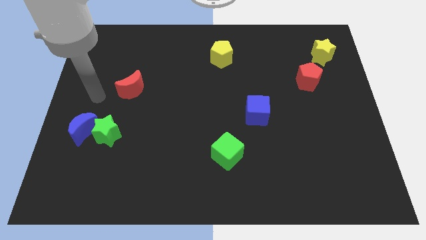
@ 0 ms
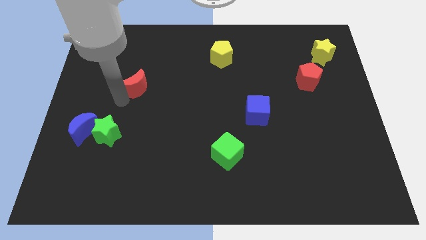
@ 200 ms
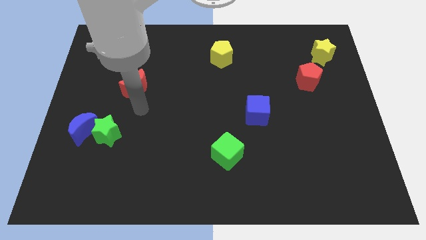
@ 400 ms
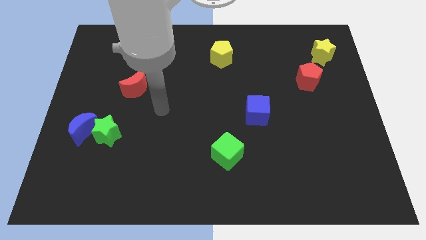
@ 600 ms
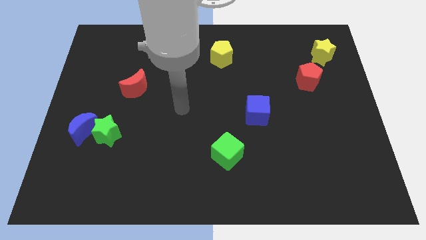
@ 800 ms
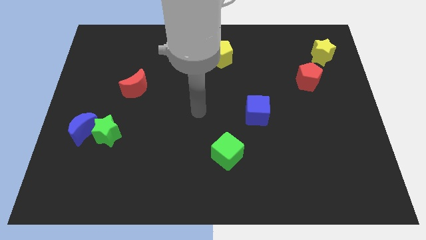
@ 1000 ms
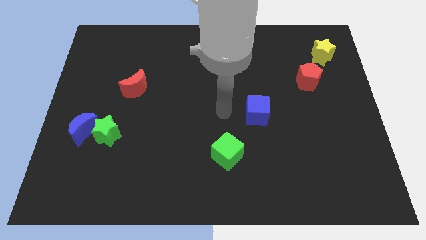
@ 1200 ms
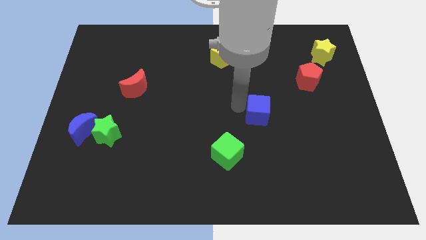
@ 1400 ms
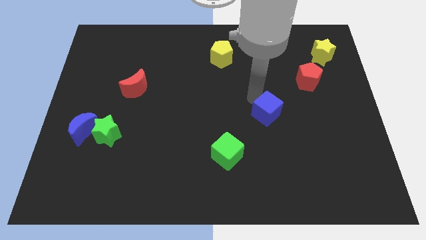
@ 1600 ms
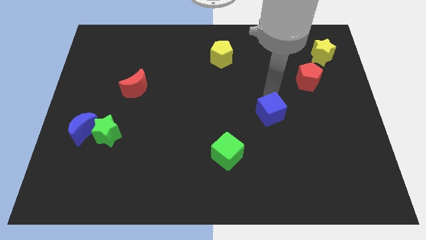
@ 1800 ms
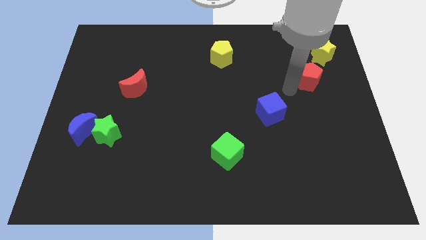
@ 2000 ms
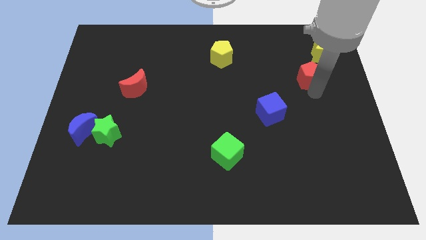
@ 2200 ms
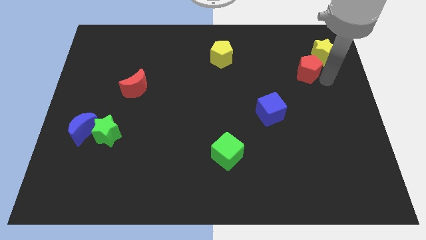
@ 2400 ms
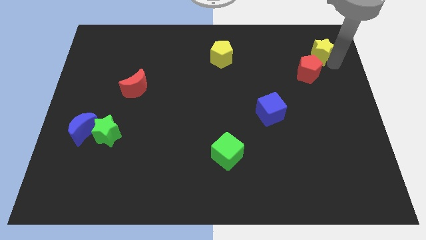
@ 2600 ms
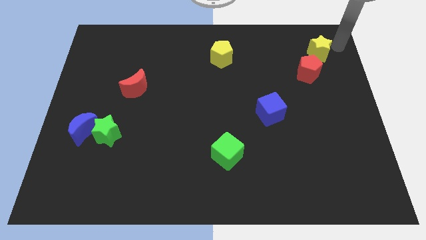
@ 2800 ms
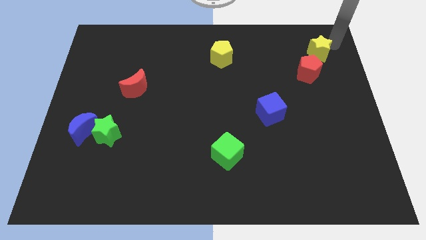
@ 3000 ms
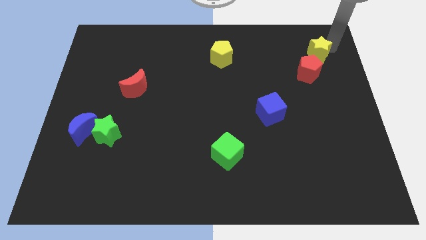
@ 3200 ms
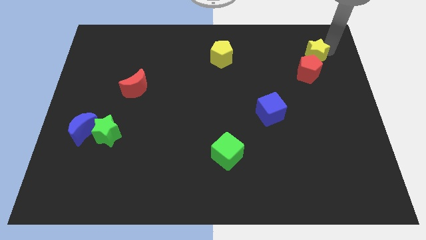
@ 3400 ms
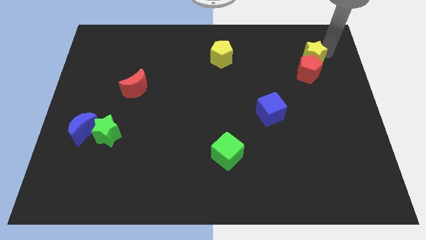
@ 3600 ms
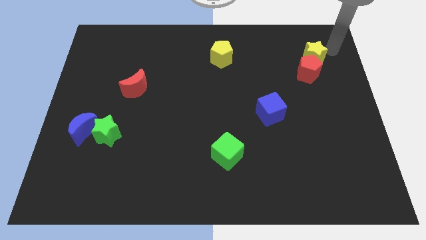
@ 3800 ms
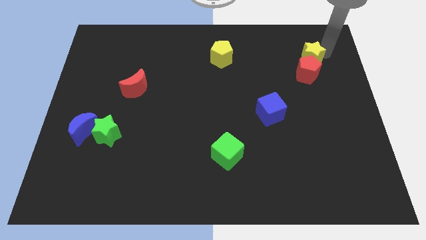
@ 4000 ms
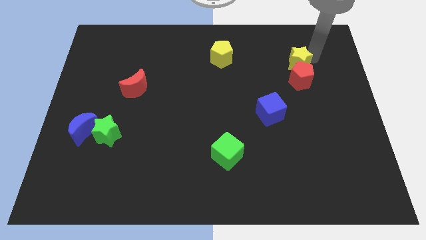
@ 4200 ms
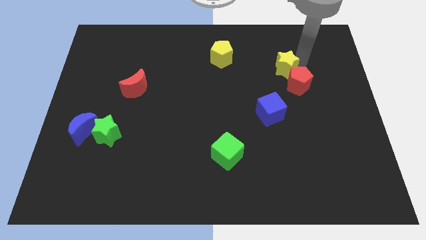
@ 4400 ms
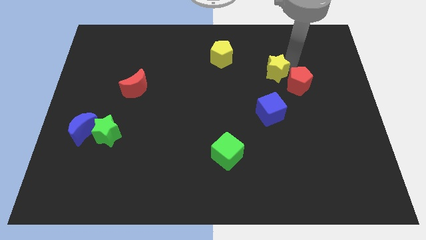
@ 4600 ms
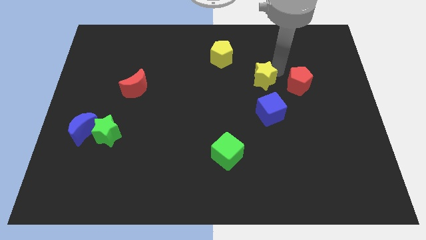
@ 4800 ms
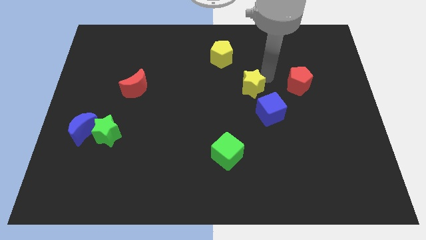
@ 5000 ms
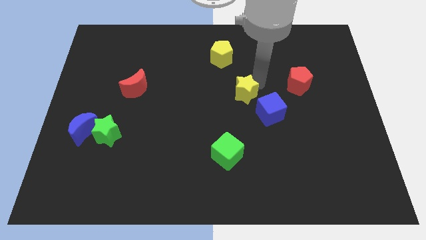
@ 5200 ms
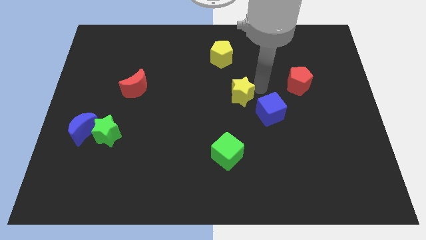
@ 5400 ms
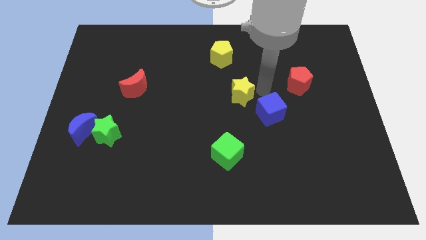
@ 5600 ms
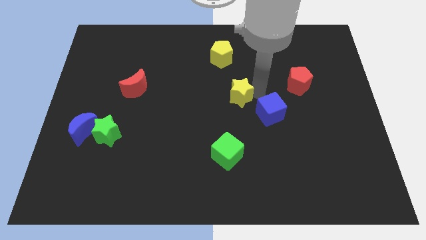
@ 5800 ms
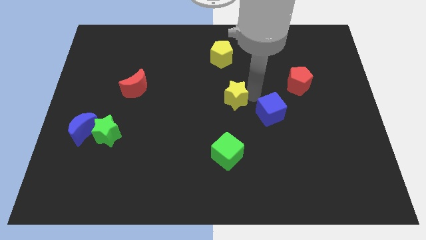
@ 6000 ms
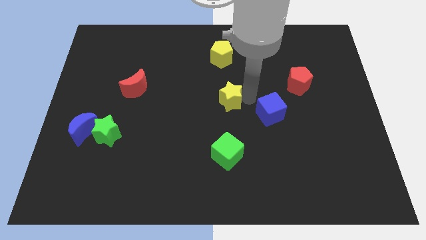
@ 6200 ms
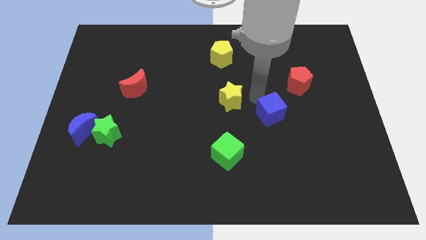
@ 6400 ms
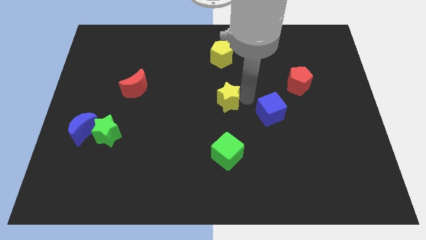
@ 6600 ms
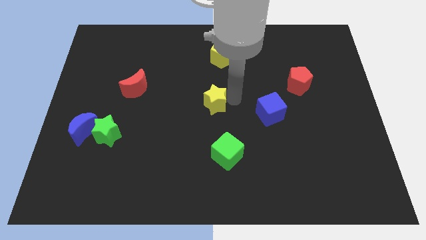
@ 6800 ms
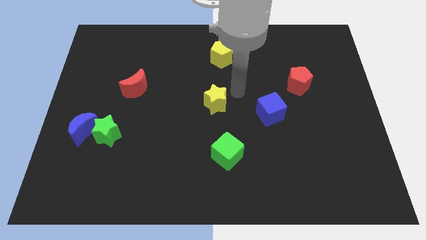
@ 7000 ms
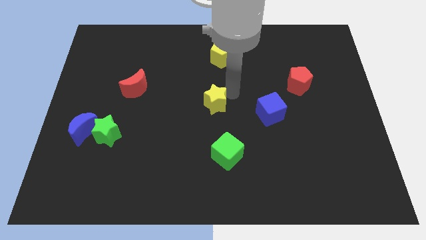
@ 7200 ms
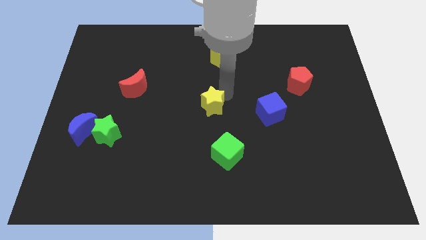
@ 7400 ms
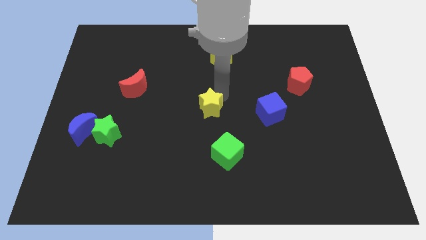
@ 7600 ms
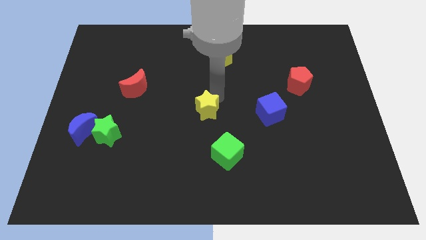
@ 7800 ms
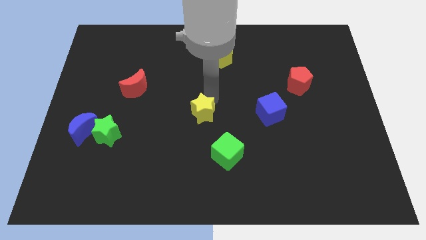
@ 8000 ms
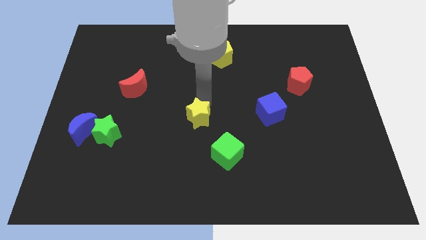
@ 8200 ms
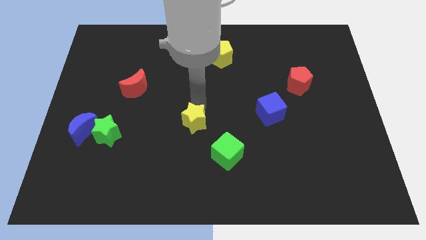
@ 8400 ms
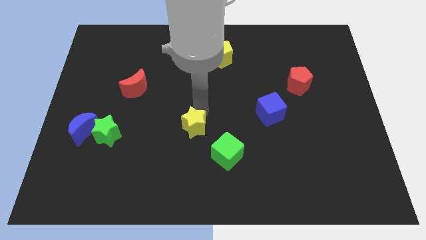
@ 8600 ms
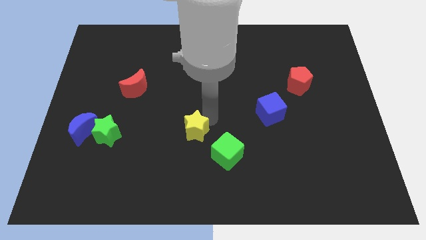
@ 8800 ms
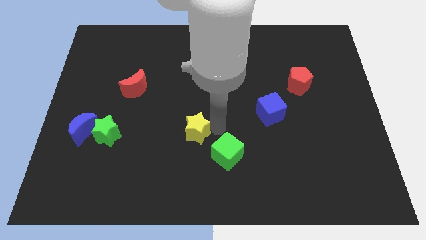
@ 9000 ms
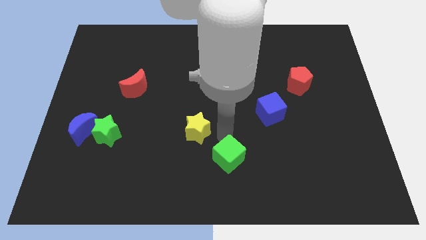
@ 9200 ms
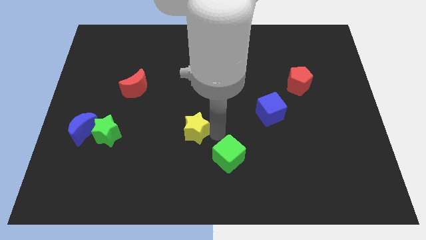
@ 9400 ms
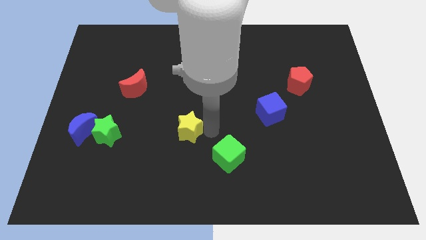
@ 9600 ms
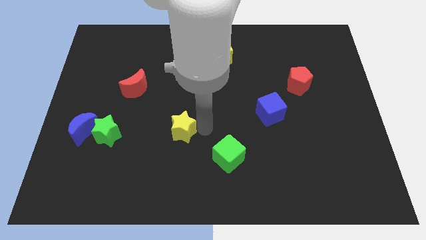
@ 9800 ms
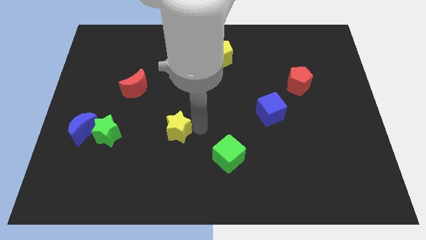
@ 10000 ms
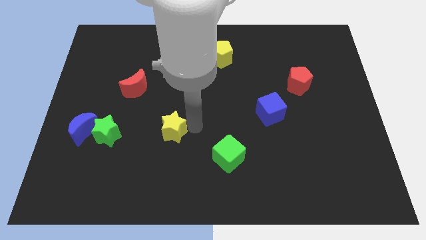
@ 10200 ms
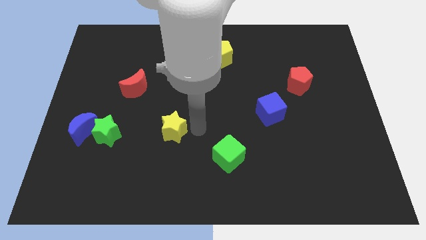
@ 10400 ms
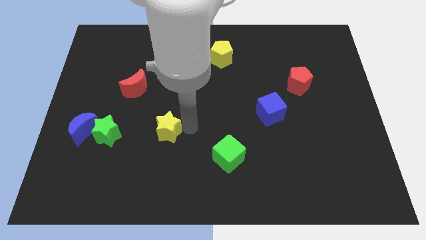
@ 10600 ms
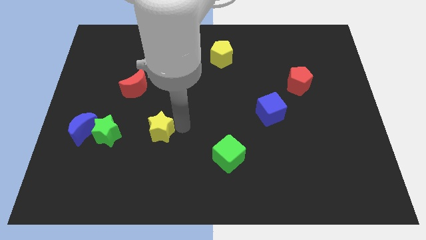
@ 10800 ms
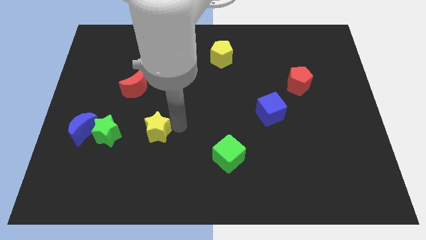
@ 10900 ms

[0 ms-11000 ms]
put the yellow star to the right side of the blue moon
